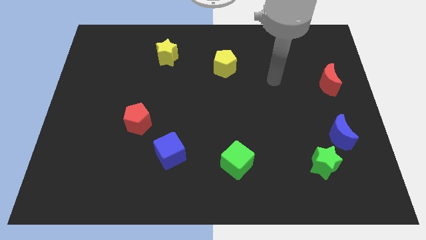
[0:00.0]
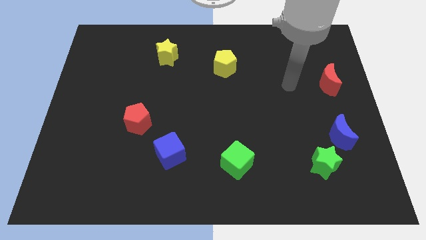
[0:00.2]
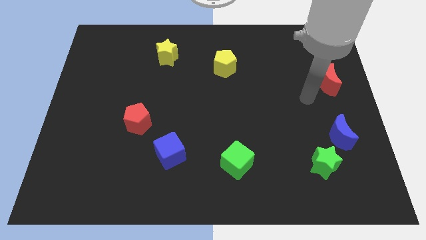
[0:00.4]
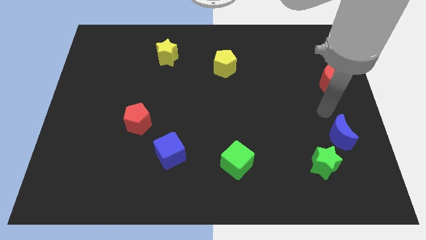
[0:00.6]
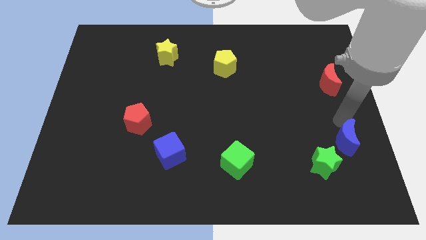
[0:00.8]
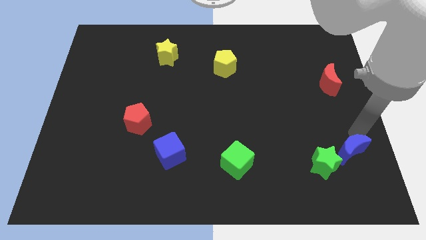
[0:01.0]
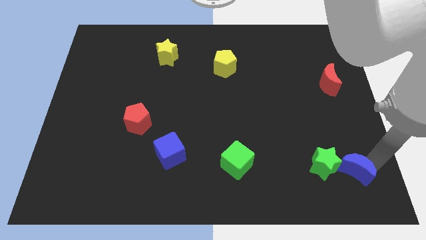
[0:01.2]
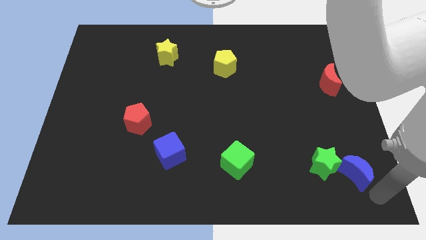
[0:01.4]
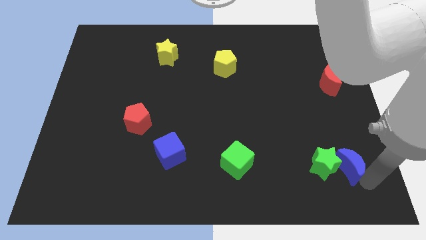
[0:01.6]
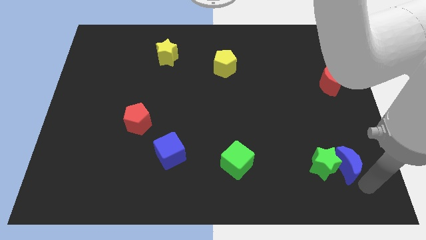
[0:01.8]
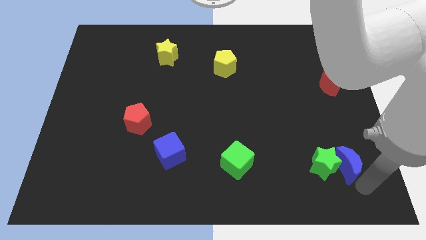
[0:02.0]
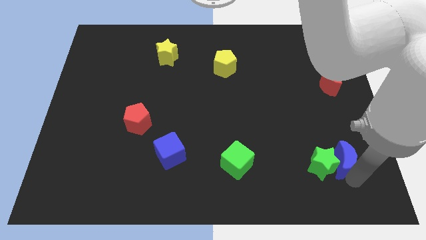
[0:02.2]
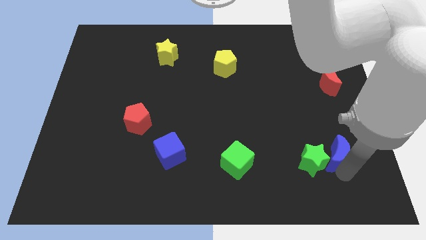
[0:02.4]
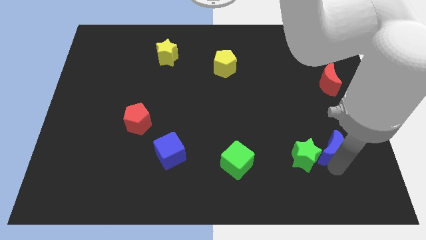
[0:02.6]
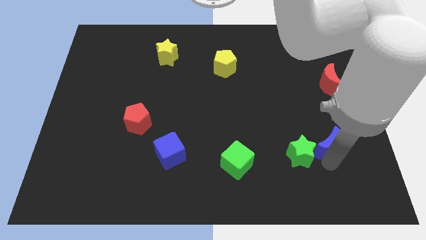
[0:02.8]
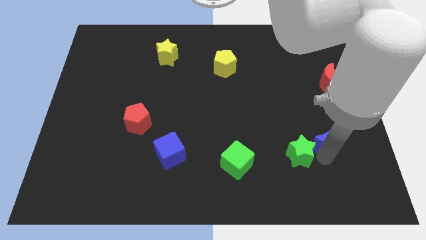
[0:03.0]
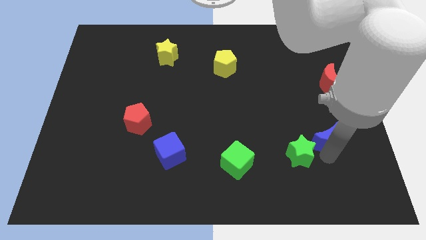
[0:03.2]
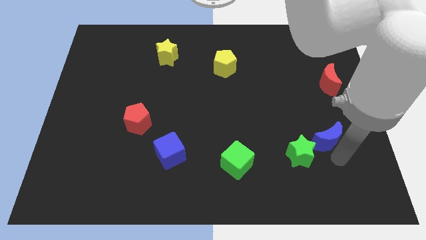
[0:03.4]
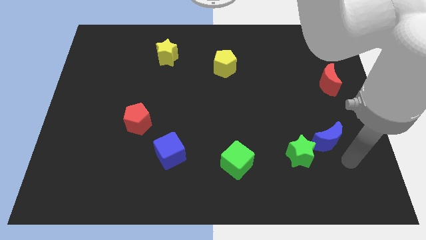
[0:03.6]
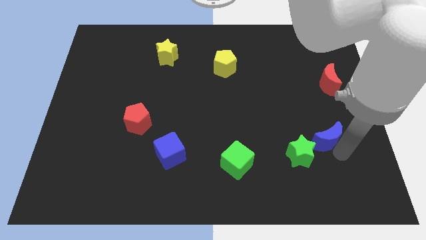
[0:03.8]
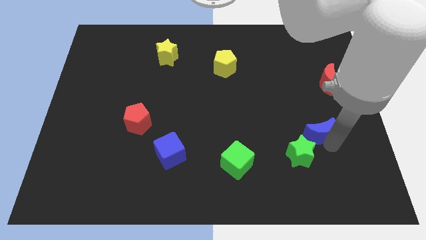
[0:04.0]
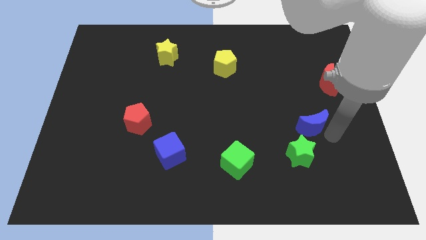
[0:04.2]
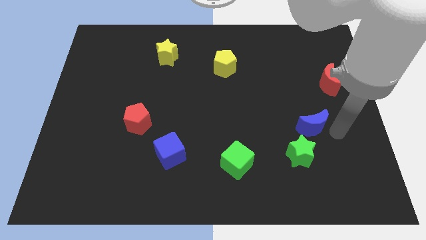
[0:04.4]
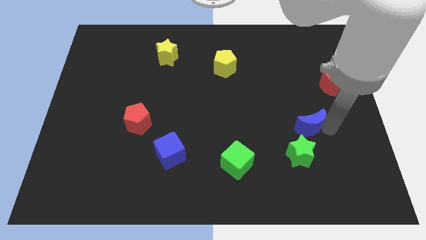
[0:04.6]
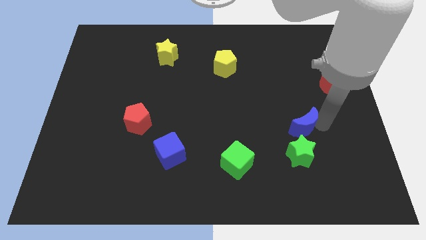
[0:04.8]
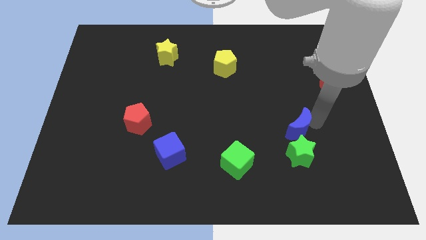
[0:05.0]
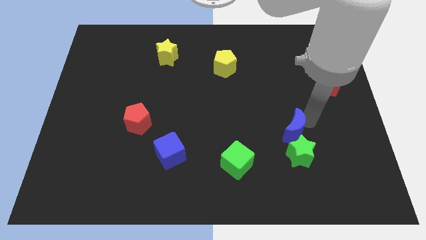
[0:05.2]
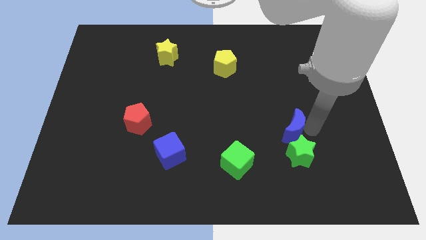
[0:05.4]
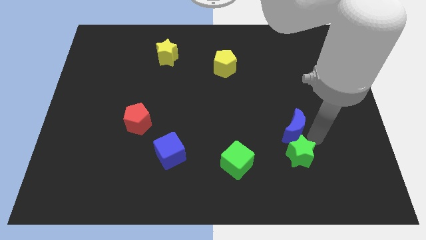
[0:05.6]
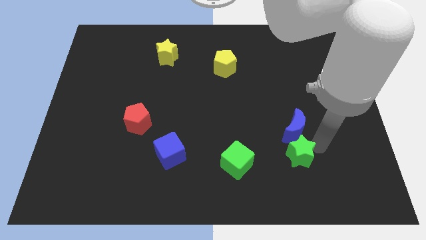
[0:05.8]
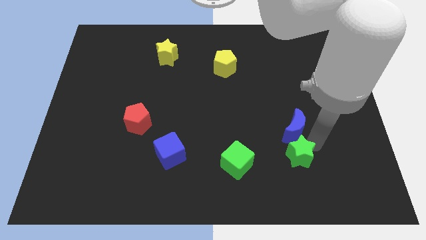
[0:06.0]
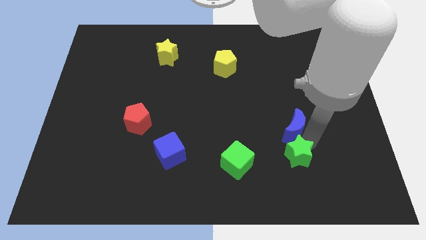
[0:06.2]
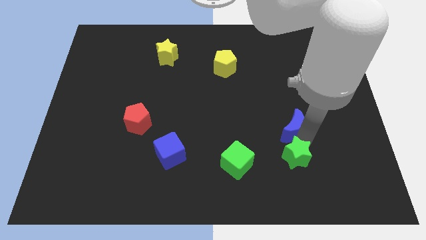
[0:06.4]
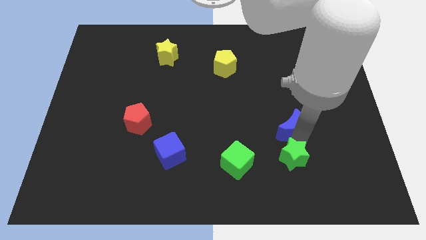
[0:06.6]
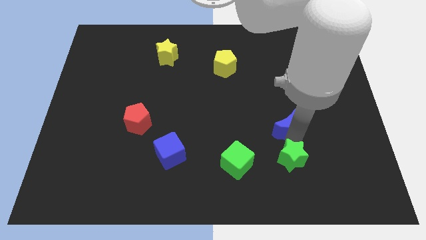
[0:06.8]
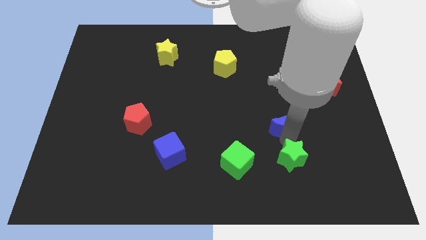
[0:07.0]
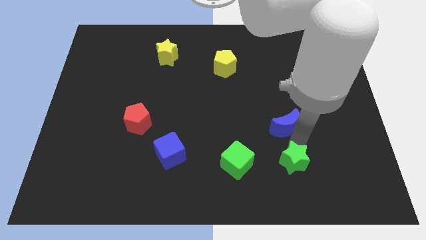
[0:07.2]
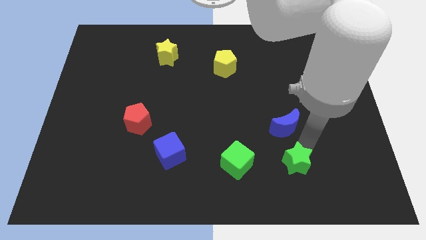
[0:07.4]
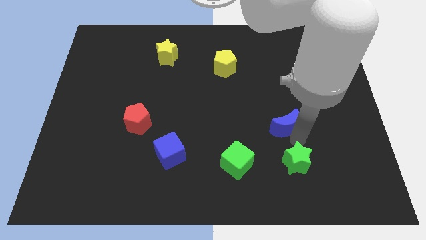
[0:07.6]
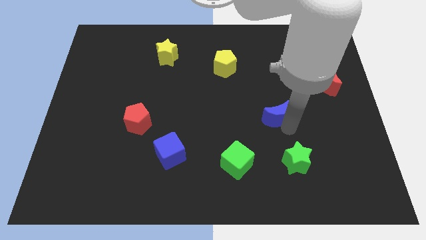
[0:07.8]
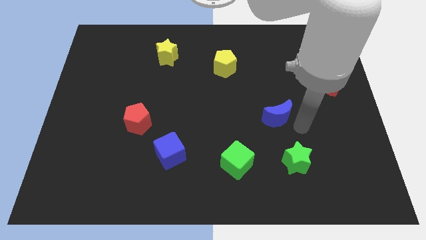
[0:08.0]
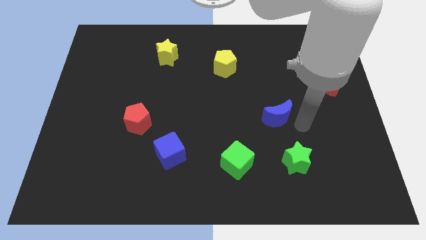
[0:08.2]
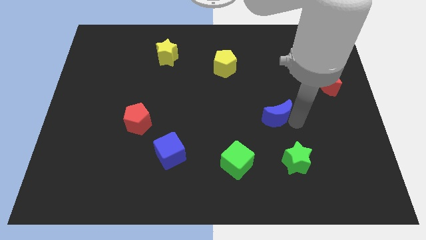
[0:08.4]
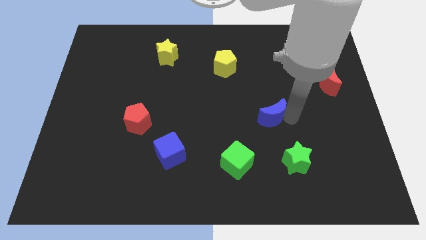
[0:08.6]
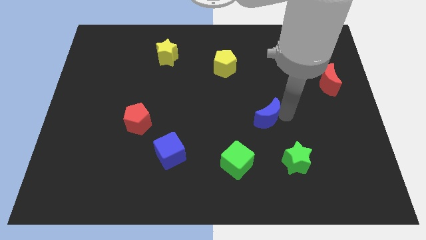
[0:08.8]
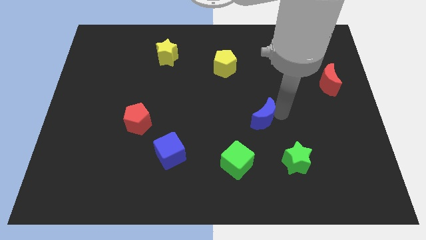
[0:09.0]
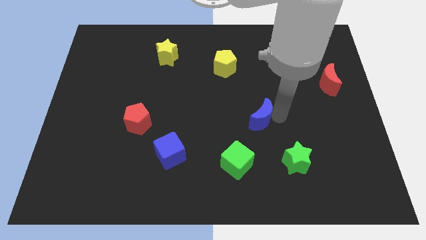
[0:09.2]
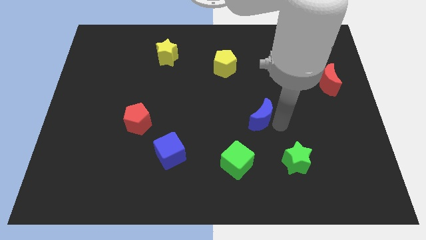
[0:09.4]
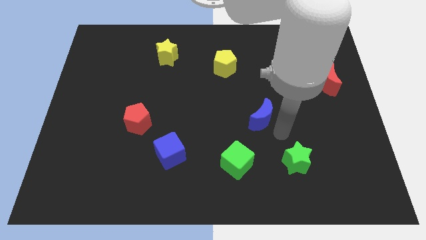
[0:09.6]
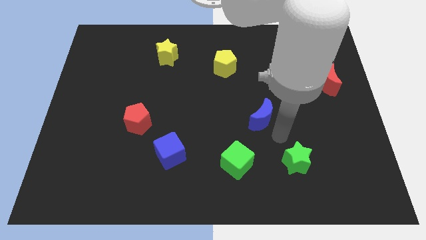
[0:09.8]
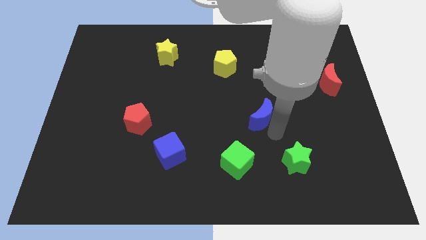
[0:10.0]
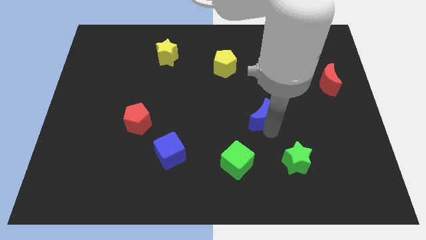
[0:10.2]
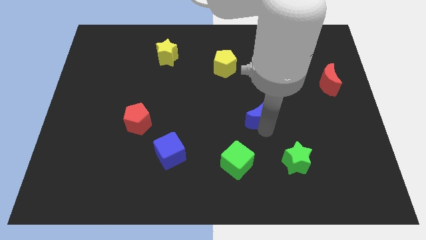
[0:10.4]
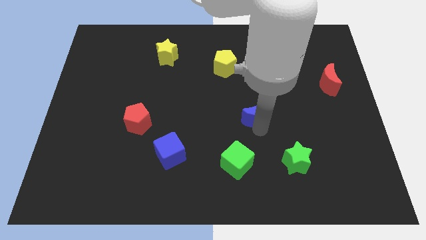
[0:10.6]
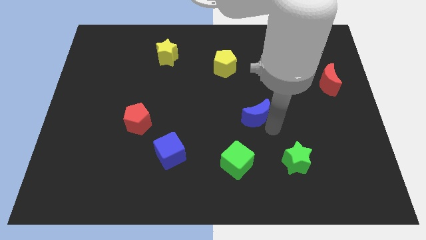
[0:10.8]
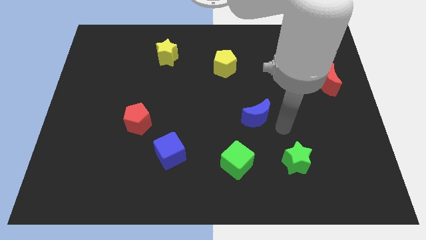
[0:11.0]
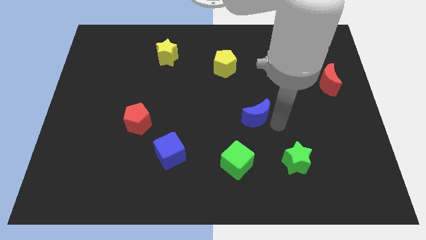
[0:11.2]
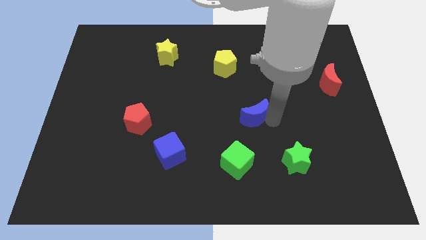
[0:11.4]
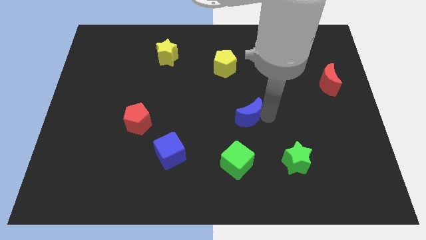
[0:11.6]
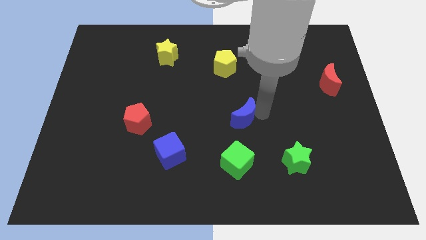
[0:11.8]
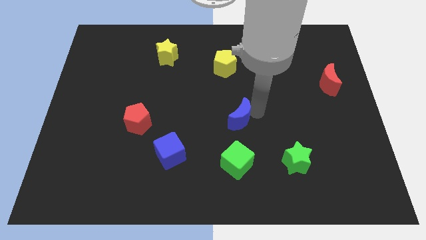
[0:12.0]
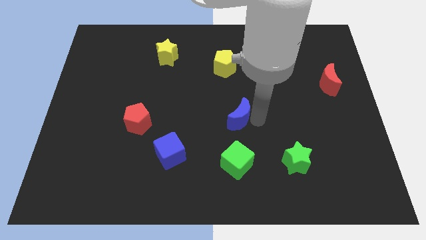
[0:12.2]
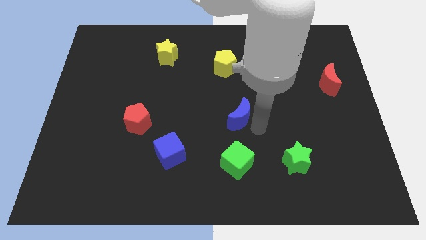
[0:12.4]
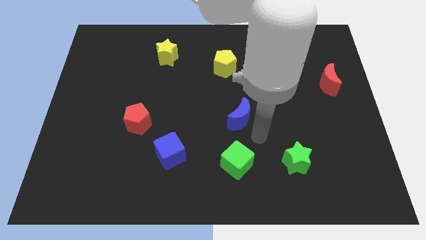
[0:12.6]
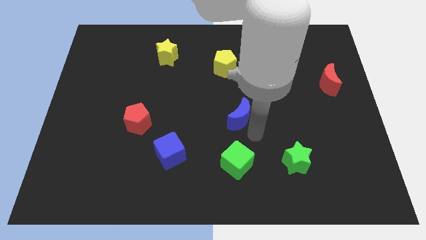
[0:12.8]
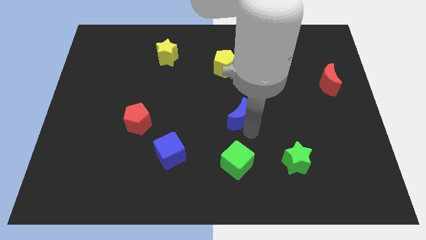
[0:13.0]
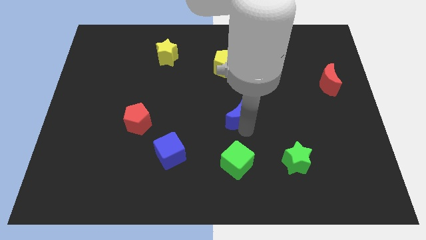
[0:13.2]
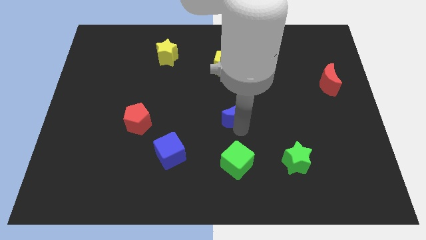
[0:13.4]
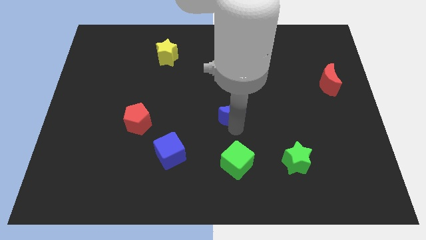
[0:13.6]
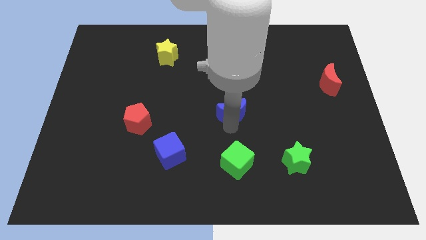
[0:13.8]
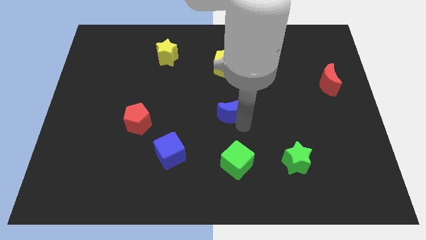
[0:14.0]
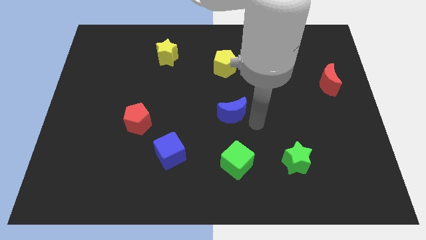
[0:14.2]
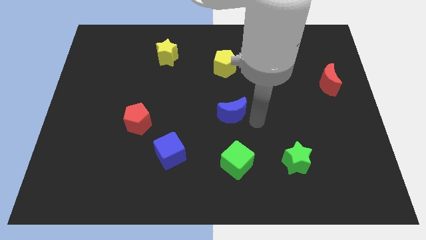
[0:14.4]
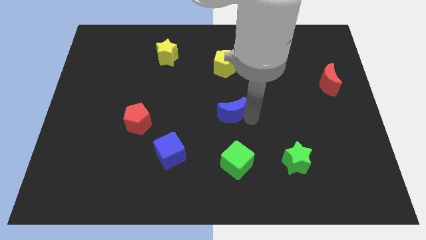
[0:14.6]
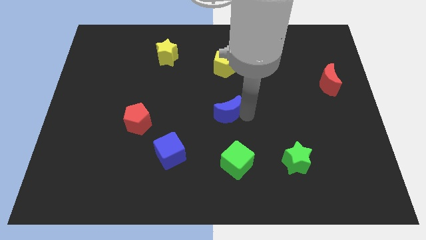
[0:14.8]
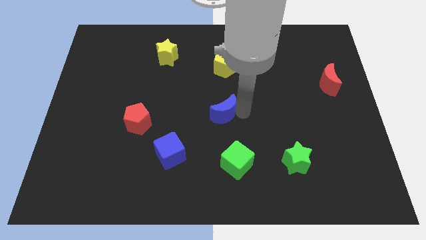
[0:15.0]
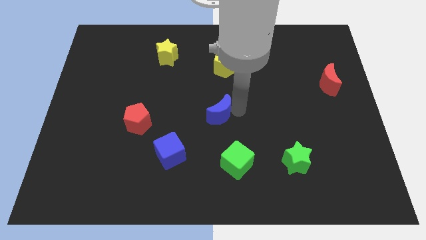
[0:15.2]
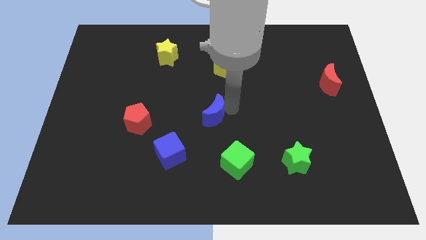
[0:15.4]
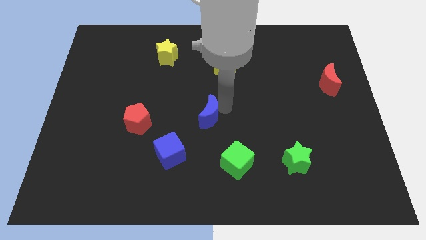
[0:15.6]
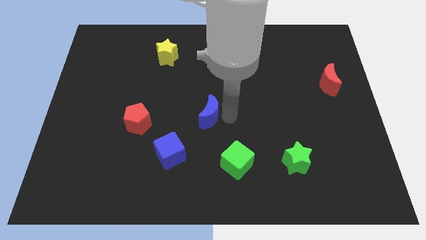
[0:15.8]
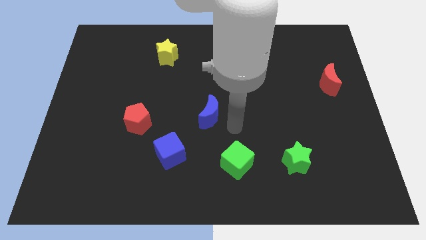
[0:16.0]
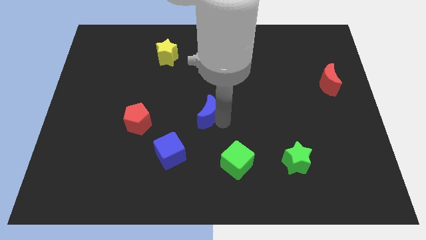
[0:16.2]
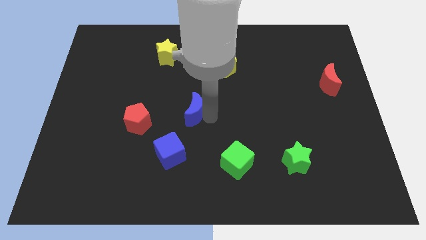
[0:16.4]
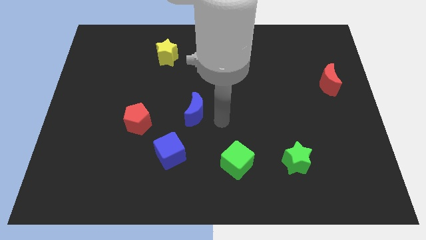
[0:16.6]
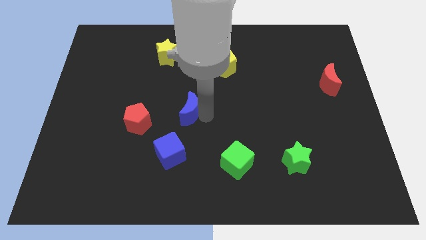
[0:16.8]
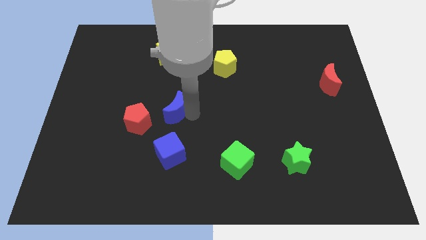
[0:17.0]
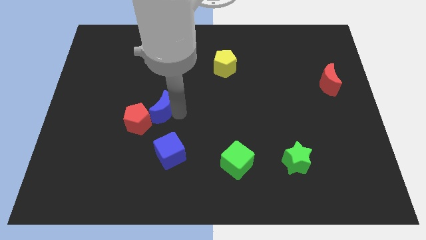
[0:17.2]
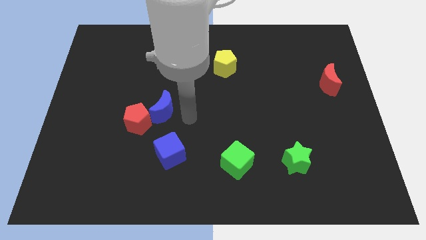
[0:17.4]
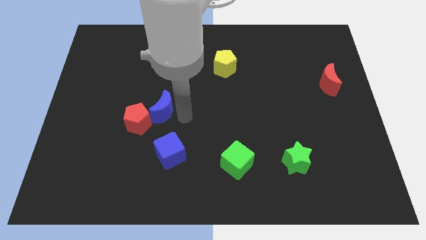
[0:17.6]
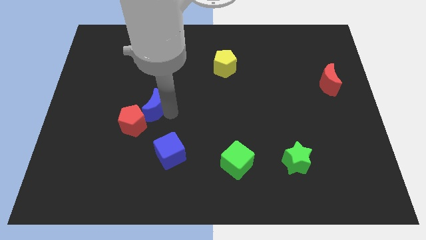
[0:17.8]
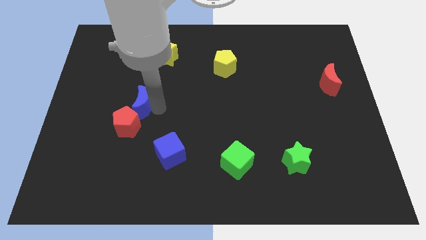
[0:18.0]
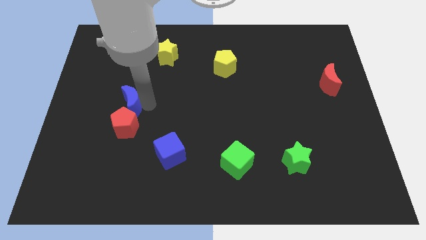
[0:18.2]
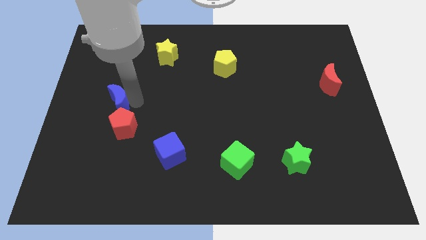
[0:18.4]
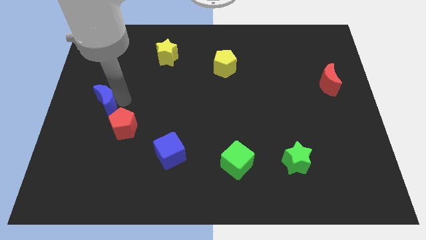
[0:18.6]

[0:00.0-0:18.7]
put the blue moon to the center left
